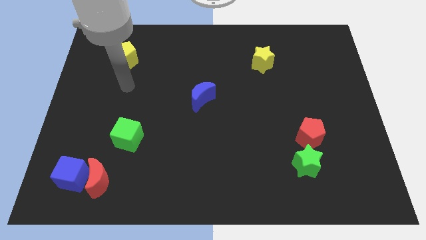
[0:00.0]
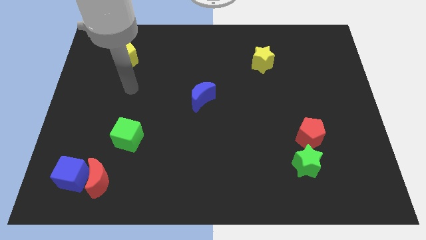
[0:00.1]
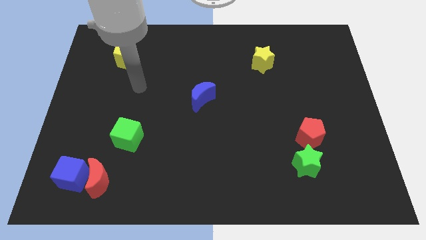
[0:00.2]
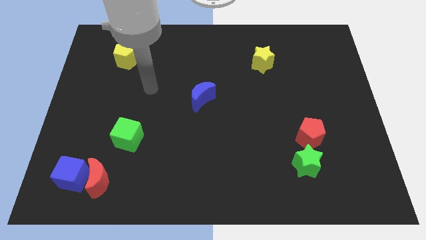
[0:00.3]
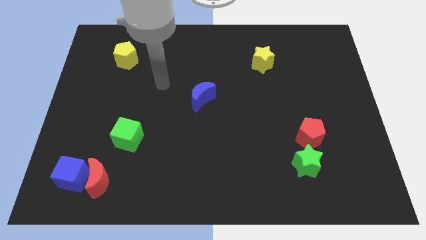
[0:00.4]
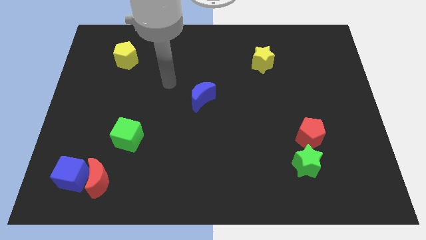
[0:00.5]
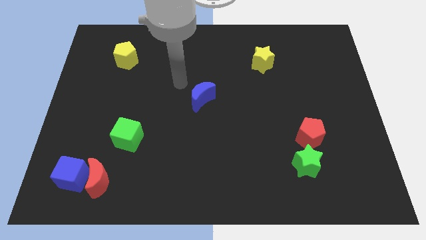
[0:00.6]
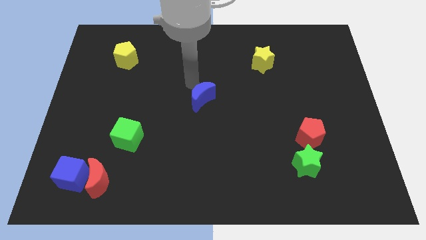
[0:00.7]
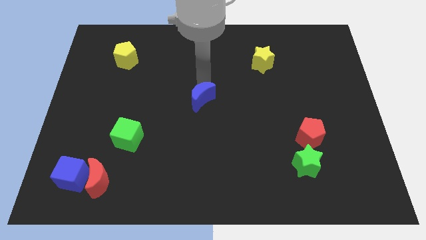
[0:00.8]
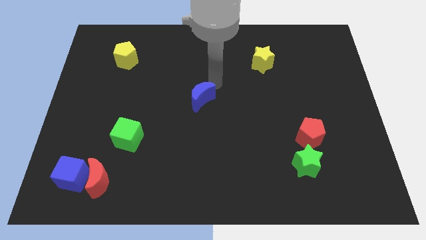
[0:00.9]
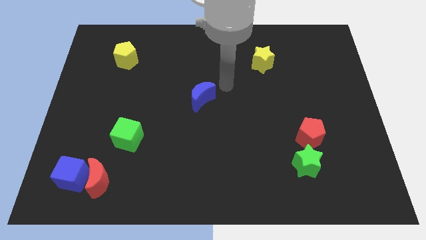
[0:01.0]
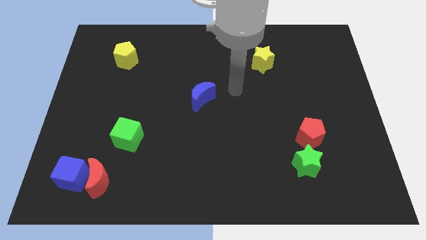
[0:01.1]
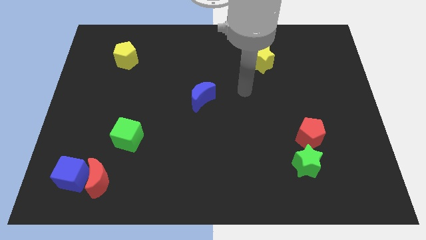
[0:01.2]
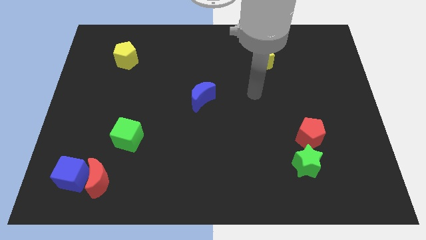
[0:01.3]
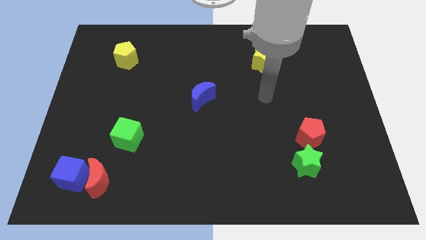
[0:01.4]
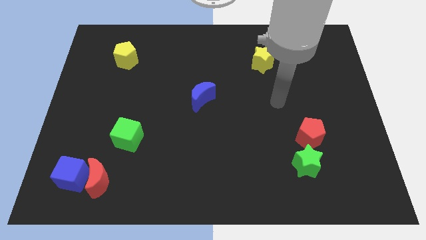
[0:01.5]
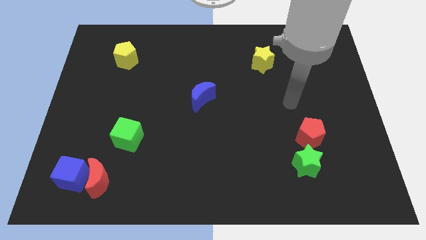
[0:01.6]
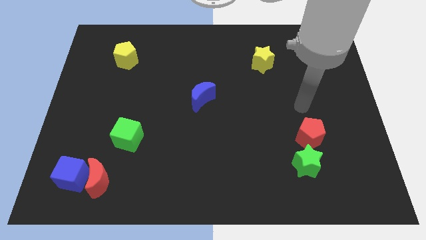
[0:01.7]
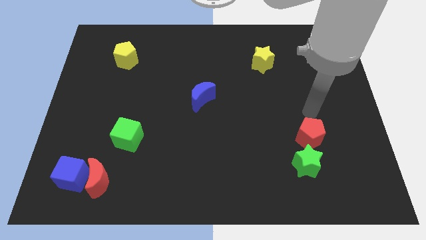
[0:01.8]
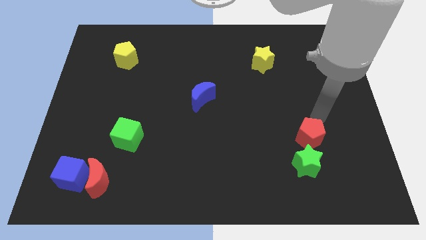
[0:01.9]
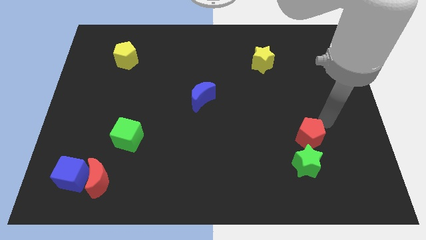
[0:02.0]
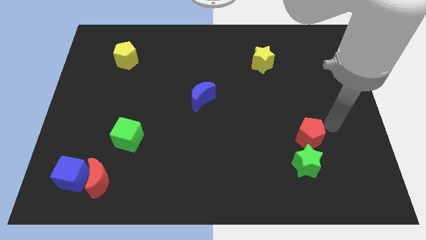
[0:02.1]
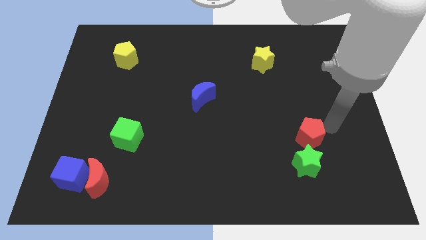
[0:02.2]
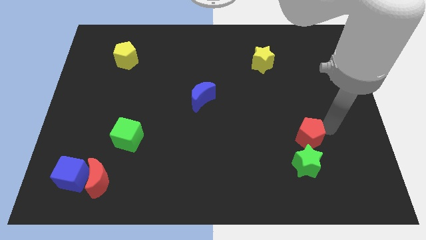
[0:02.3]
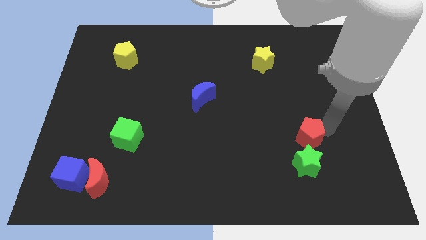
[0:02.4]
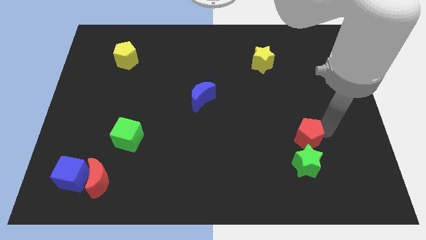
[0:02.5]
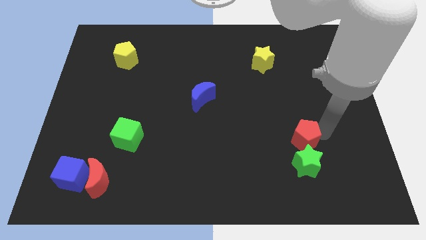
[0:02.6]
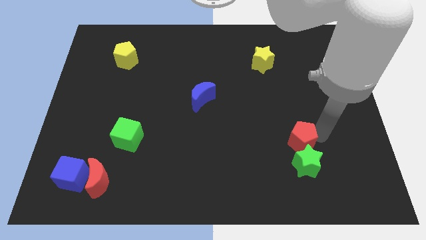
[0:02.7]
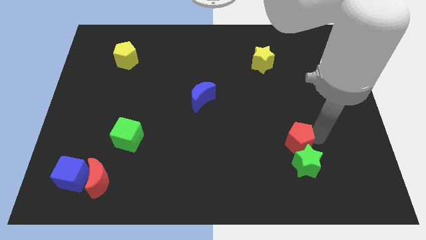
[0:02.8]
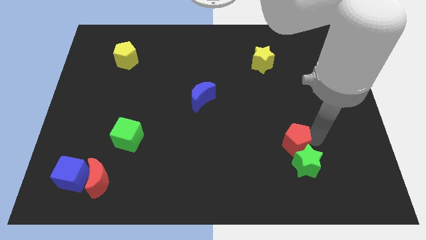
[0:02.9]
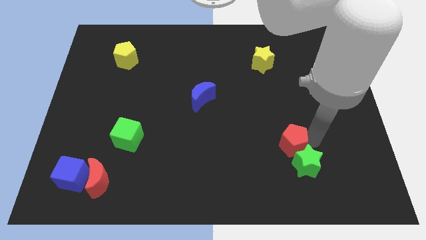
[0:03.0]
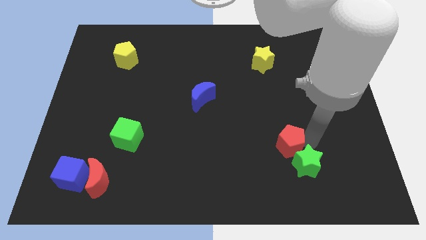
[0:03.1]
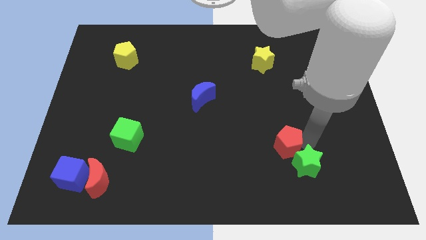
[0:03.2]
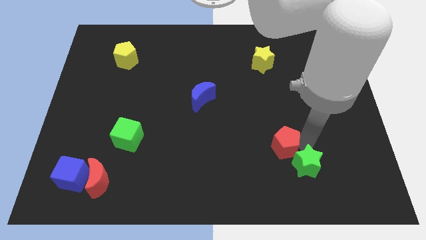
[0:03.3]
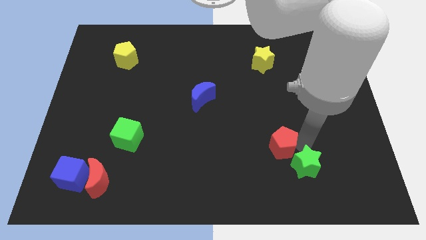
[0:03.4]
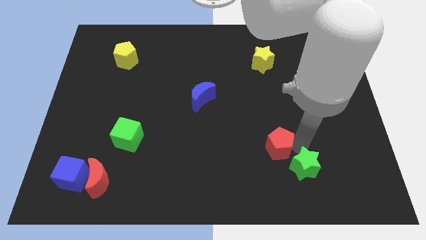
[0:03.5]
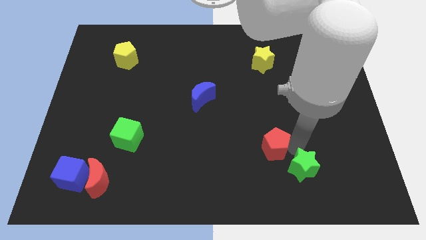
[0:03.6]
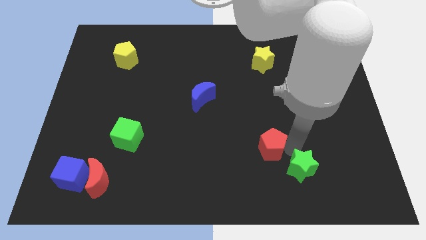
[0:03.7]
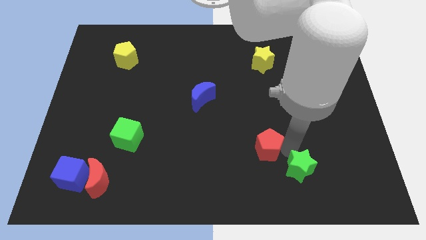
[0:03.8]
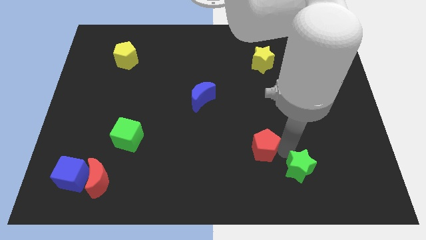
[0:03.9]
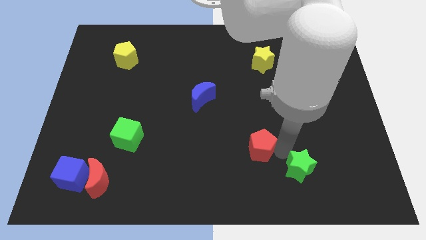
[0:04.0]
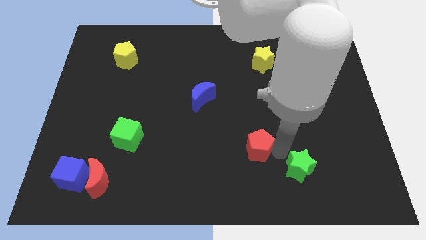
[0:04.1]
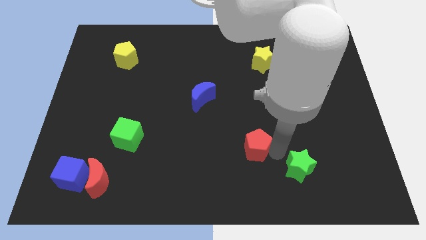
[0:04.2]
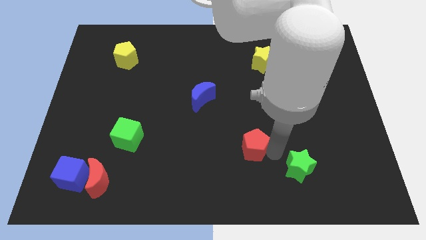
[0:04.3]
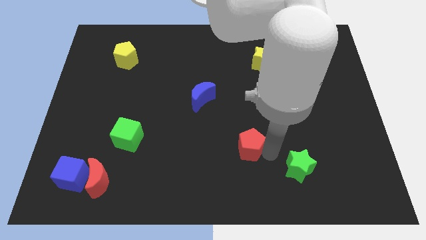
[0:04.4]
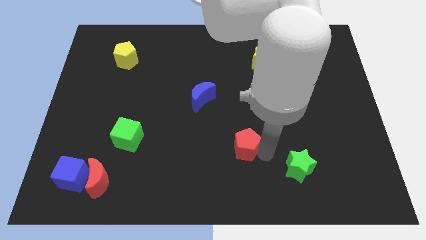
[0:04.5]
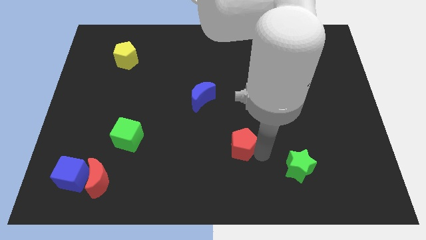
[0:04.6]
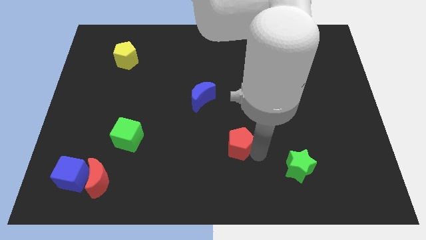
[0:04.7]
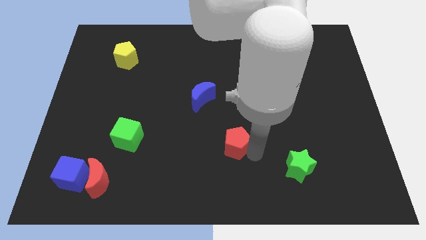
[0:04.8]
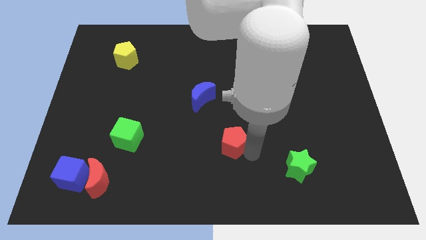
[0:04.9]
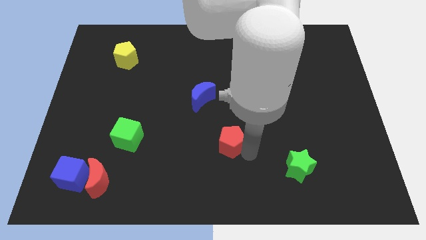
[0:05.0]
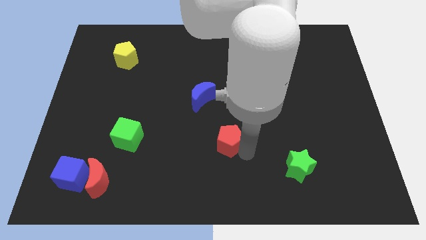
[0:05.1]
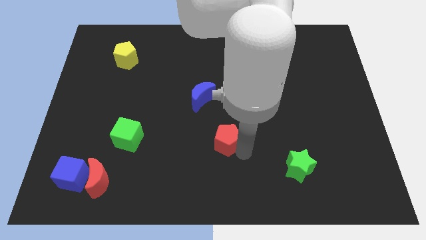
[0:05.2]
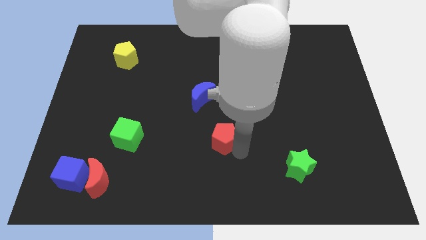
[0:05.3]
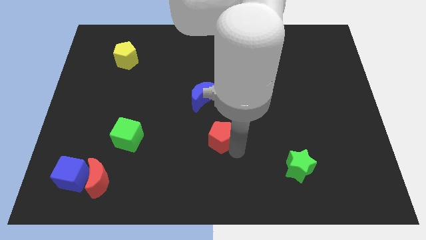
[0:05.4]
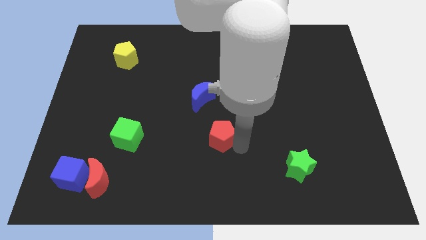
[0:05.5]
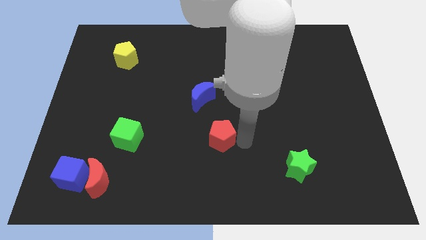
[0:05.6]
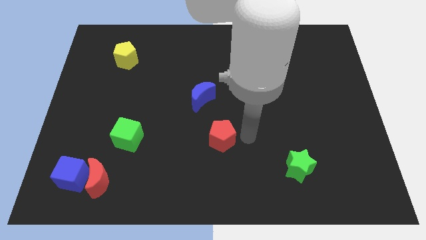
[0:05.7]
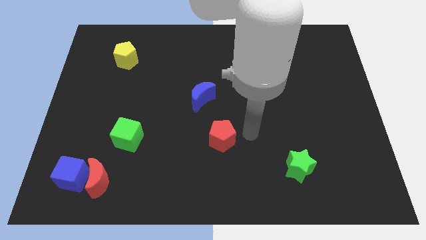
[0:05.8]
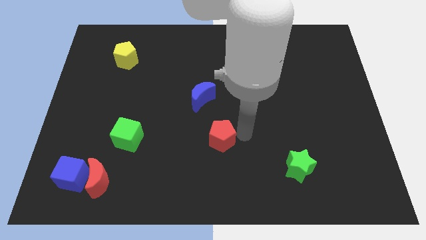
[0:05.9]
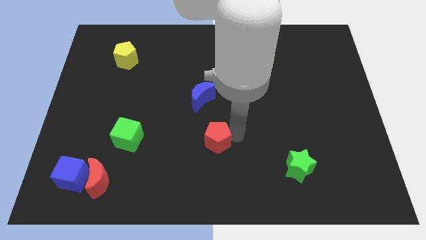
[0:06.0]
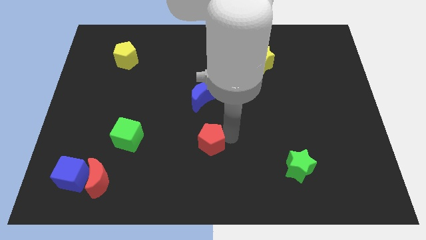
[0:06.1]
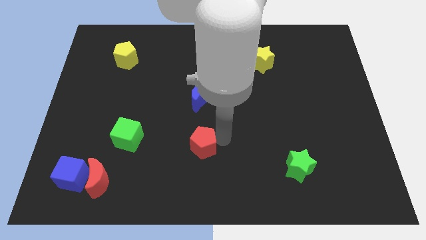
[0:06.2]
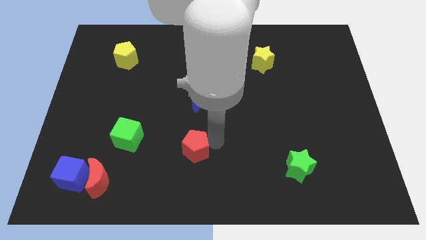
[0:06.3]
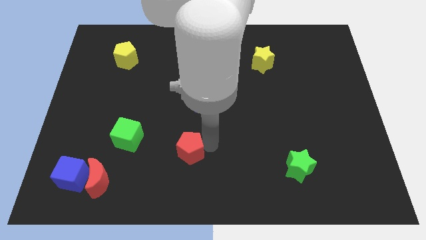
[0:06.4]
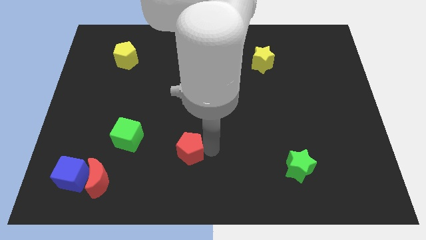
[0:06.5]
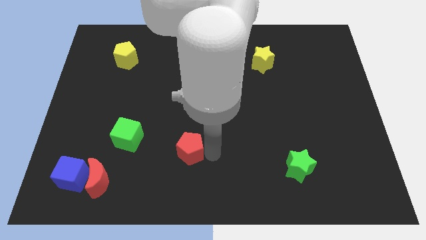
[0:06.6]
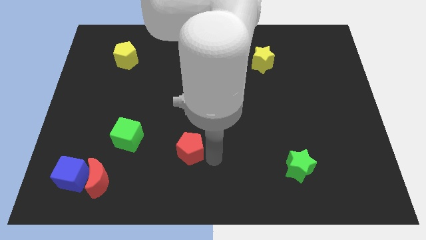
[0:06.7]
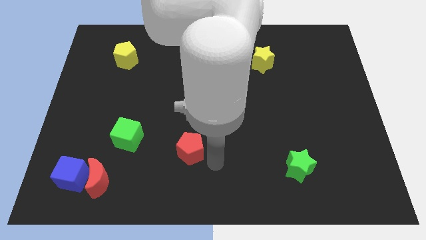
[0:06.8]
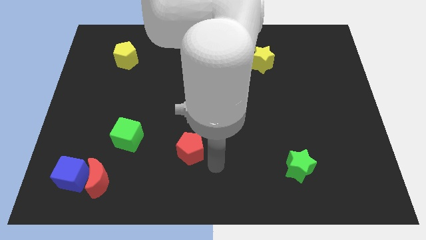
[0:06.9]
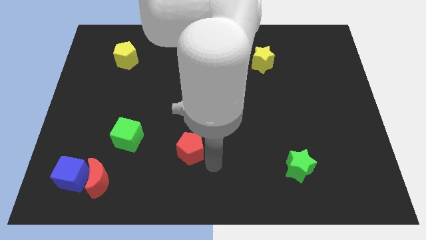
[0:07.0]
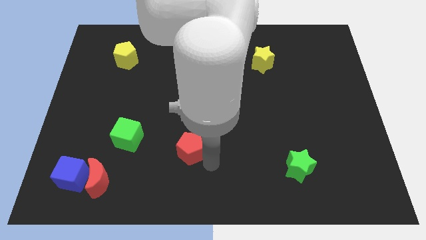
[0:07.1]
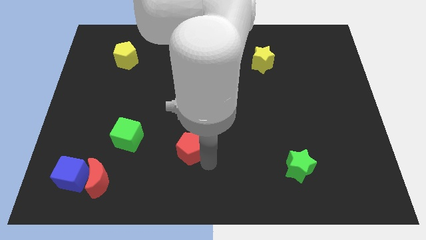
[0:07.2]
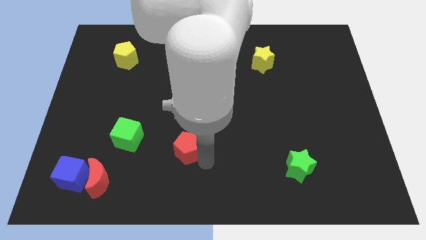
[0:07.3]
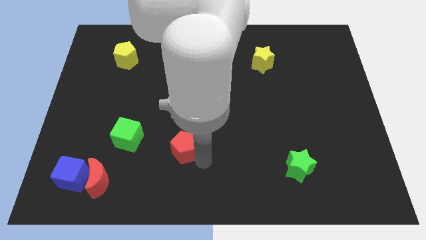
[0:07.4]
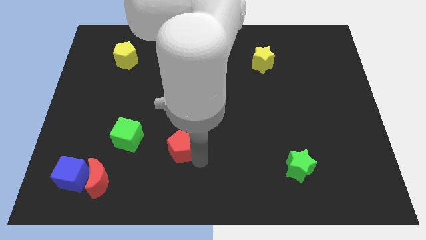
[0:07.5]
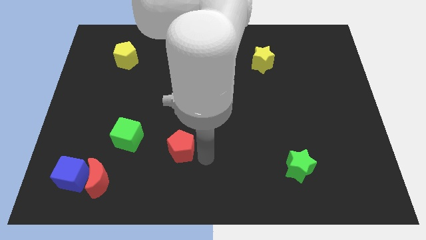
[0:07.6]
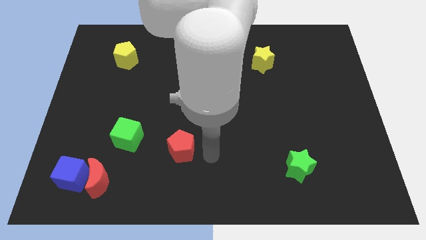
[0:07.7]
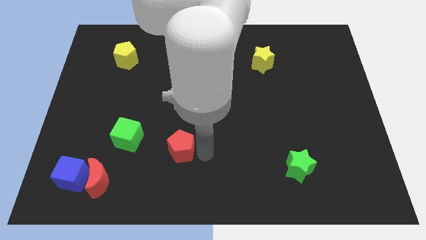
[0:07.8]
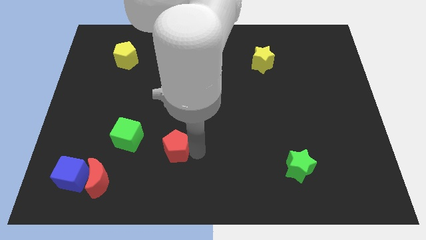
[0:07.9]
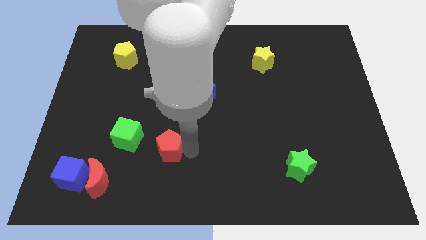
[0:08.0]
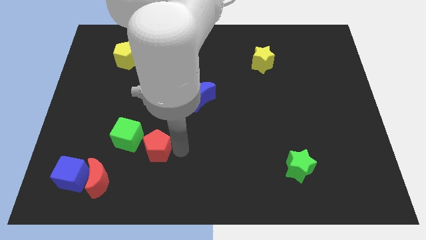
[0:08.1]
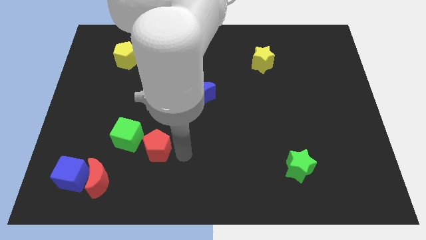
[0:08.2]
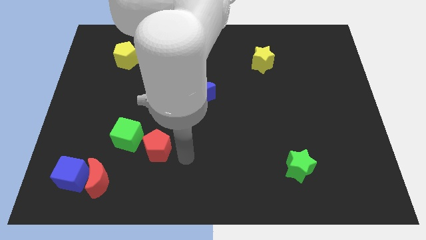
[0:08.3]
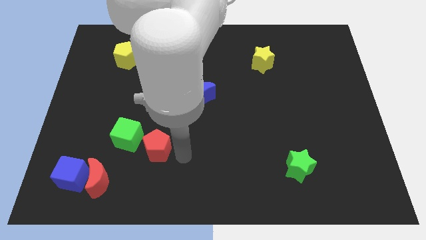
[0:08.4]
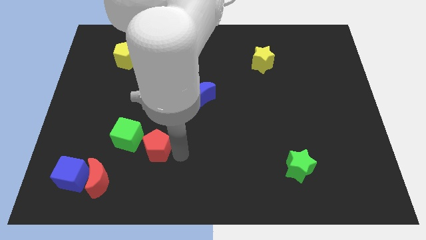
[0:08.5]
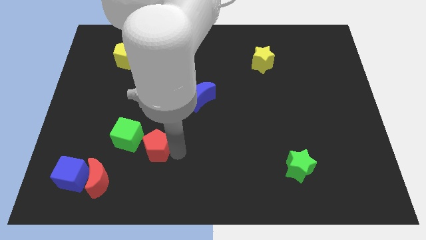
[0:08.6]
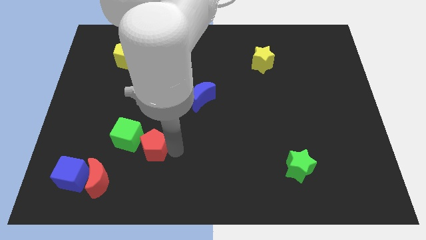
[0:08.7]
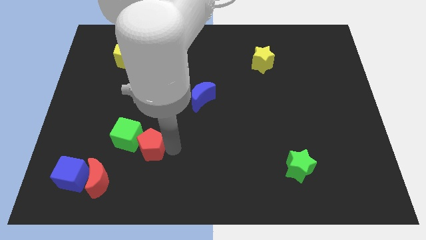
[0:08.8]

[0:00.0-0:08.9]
put the red pentagon next to the green cube
